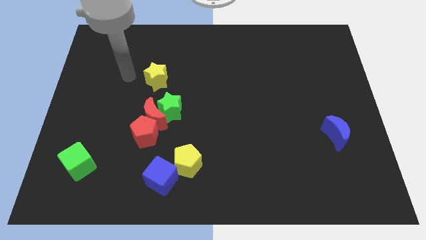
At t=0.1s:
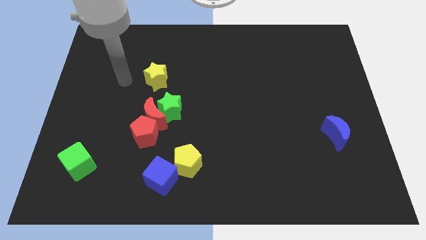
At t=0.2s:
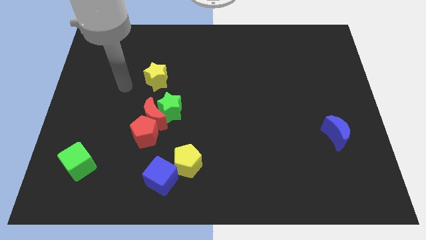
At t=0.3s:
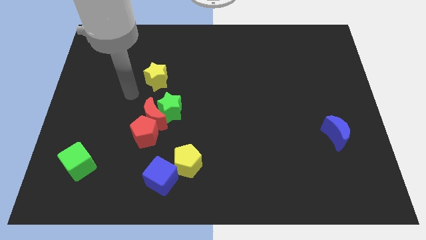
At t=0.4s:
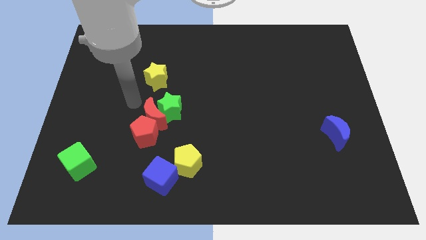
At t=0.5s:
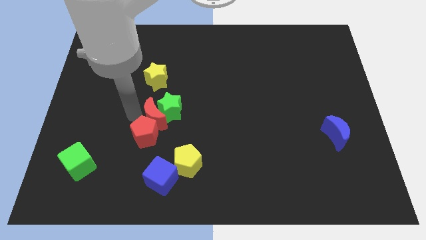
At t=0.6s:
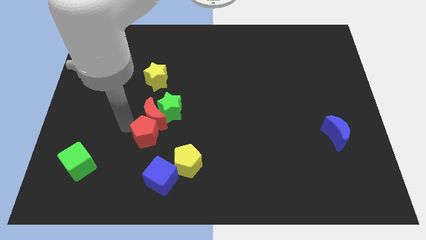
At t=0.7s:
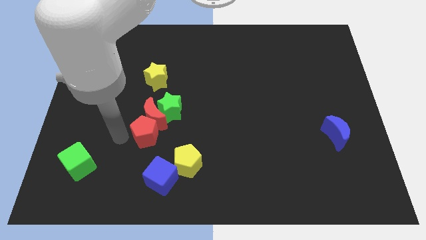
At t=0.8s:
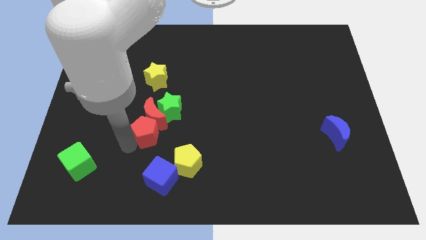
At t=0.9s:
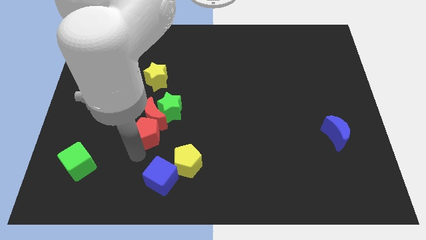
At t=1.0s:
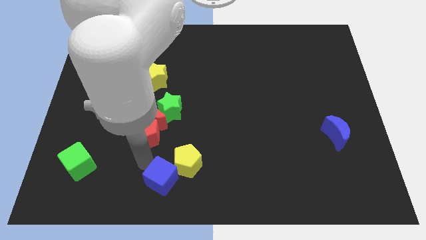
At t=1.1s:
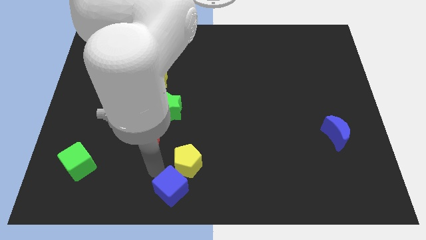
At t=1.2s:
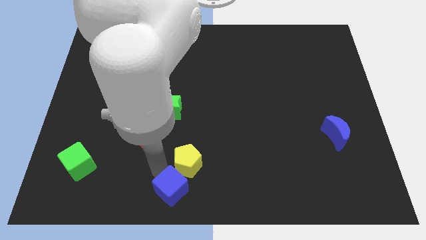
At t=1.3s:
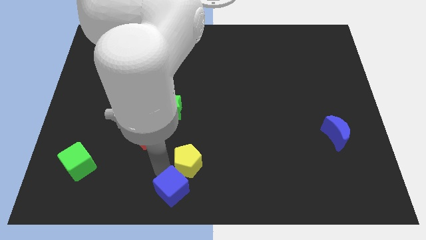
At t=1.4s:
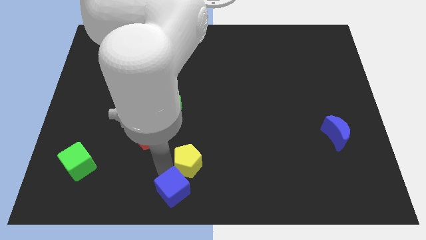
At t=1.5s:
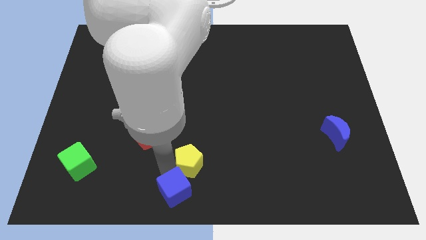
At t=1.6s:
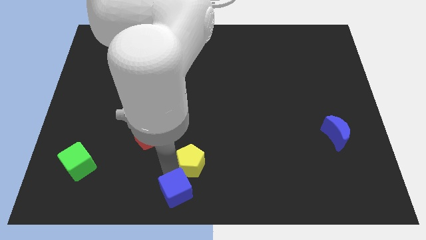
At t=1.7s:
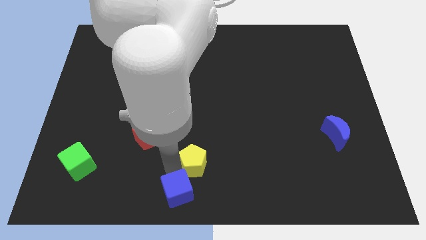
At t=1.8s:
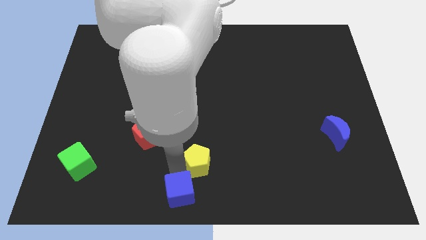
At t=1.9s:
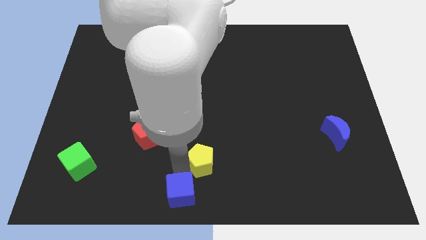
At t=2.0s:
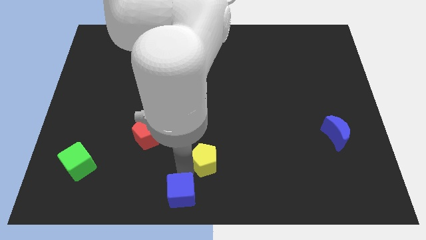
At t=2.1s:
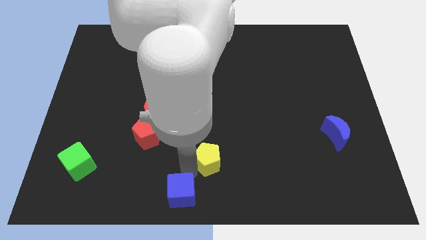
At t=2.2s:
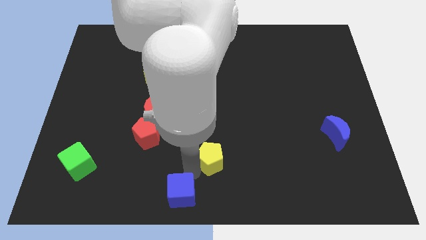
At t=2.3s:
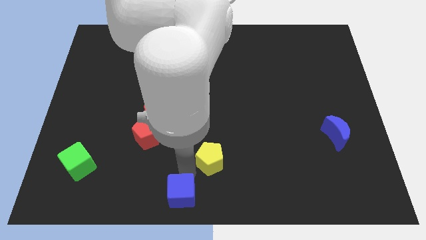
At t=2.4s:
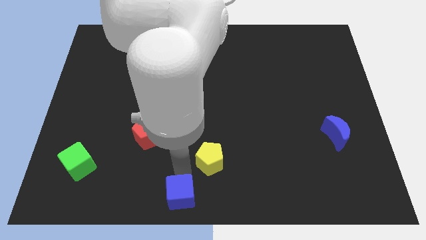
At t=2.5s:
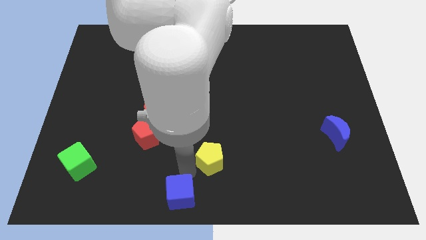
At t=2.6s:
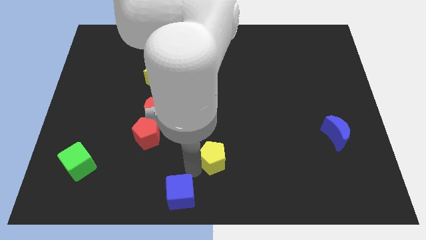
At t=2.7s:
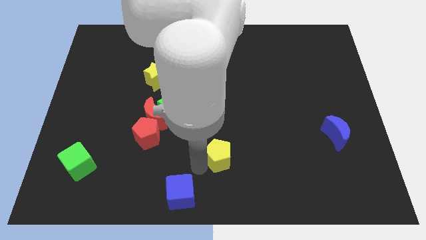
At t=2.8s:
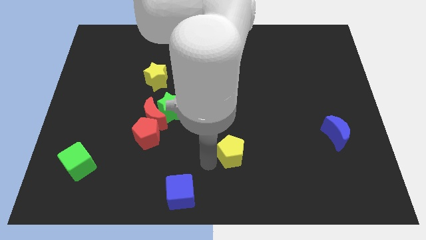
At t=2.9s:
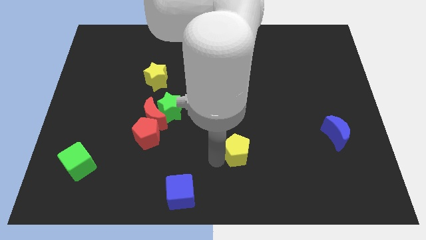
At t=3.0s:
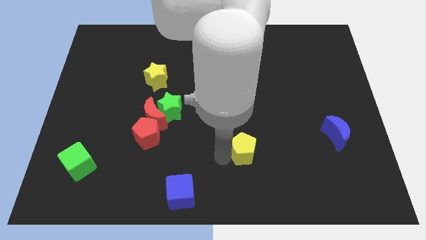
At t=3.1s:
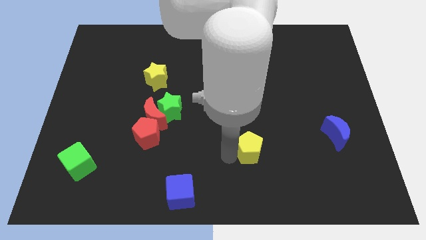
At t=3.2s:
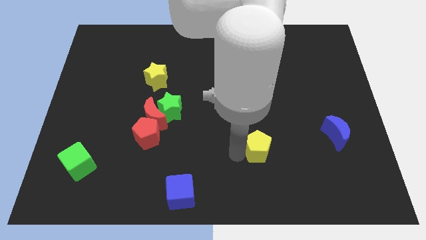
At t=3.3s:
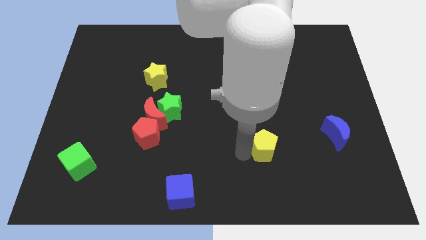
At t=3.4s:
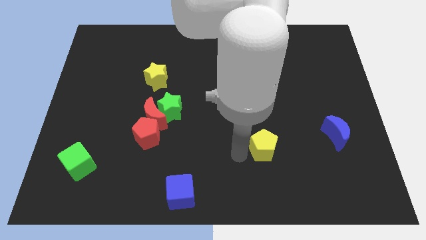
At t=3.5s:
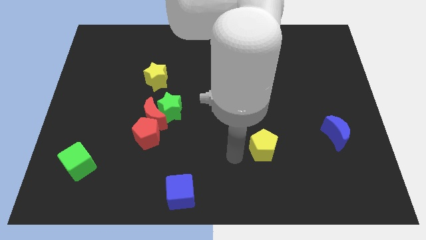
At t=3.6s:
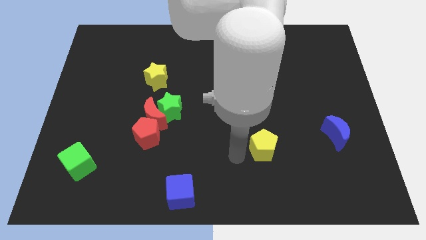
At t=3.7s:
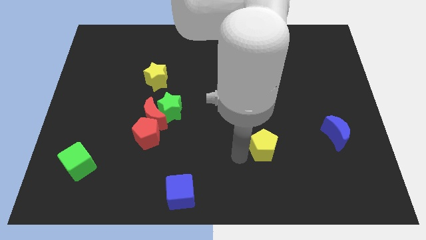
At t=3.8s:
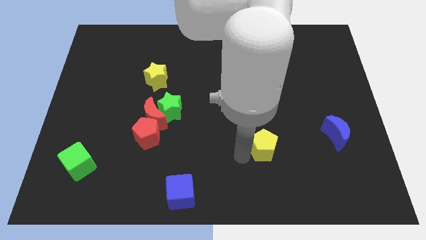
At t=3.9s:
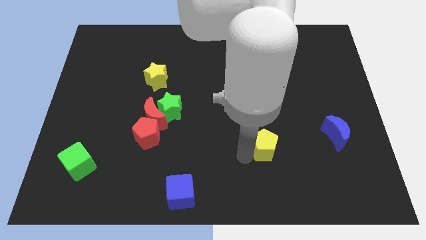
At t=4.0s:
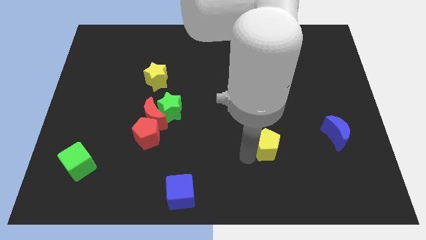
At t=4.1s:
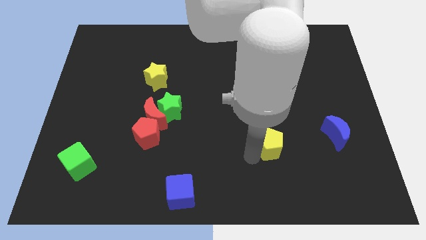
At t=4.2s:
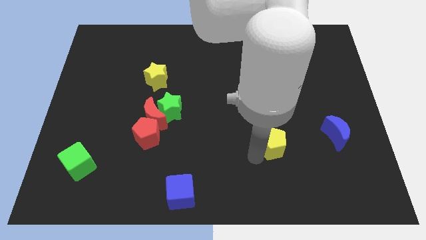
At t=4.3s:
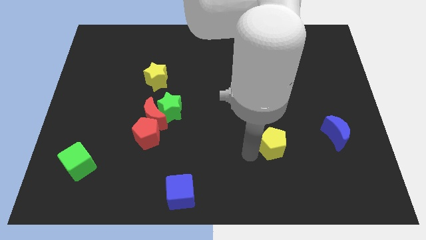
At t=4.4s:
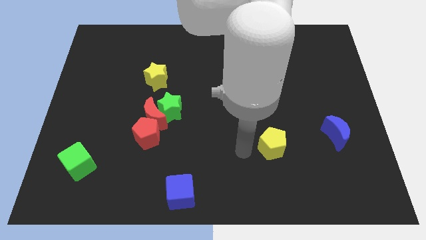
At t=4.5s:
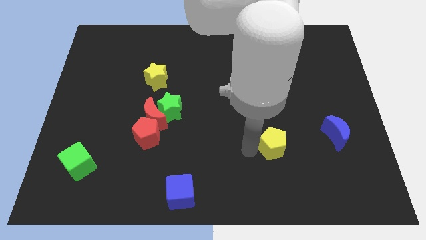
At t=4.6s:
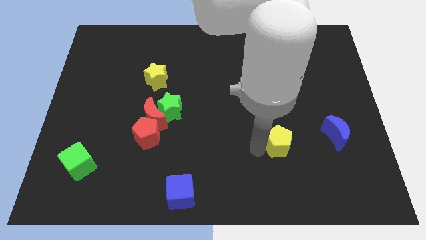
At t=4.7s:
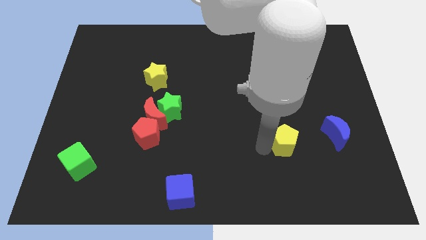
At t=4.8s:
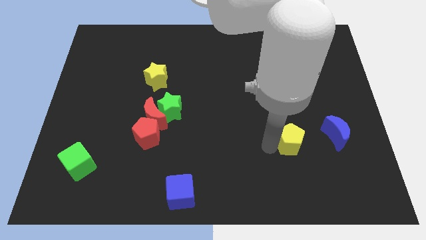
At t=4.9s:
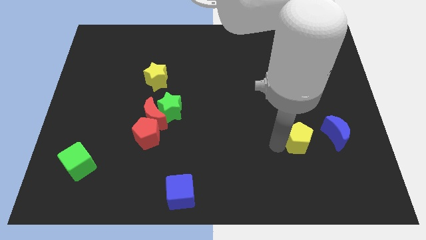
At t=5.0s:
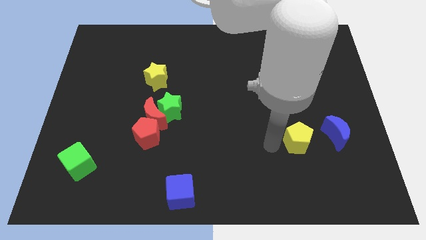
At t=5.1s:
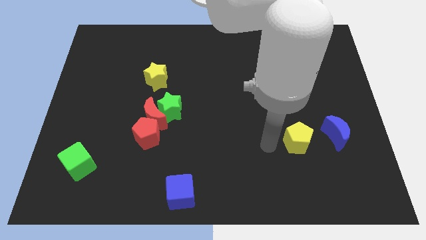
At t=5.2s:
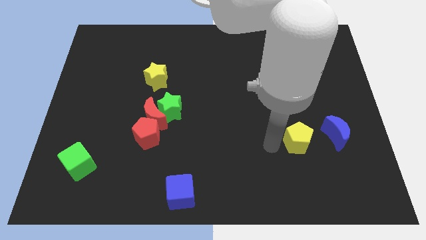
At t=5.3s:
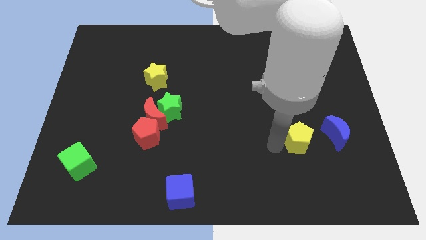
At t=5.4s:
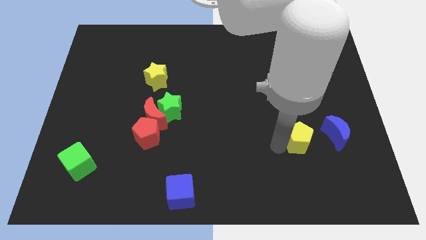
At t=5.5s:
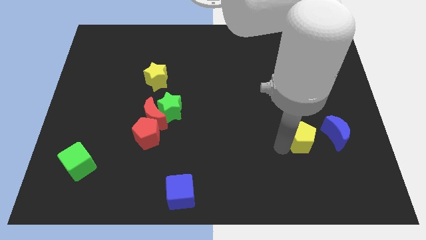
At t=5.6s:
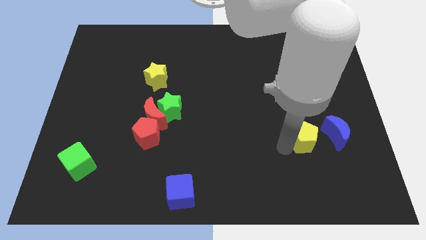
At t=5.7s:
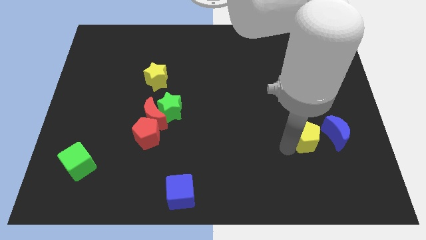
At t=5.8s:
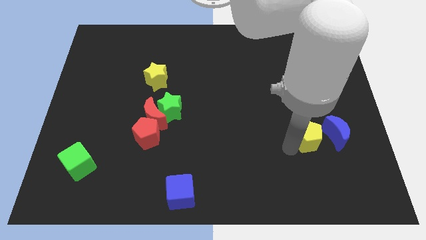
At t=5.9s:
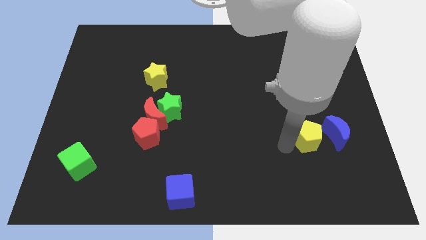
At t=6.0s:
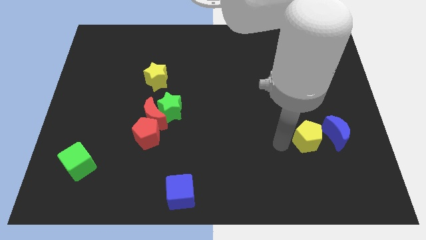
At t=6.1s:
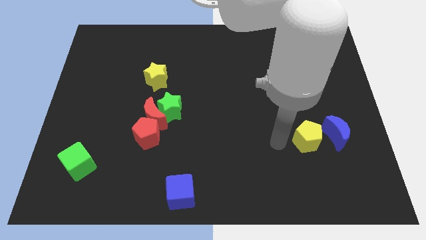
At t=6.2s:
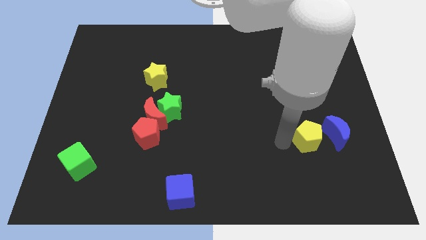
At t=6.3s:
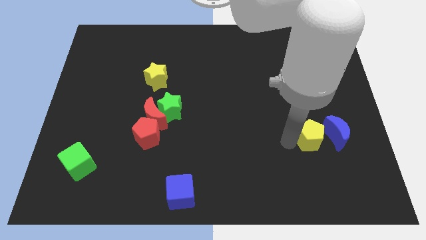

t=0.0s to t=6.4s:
slide the yellow pentagon towards the blue moon

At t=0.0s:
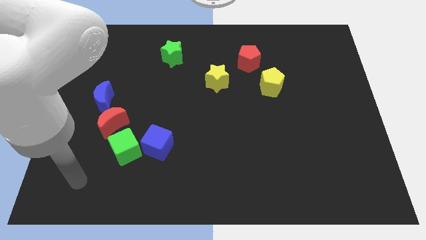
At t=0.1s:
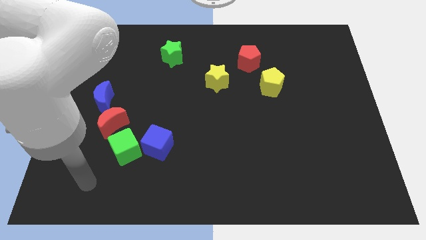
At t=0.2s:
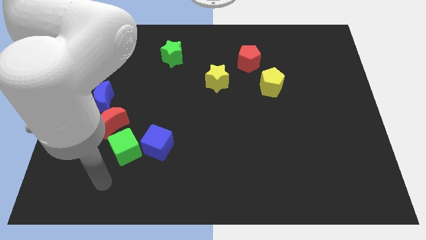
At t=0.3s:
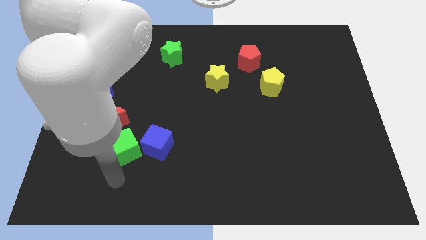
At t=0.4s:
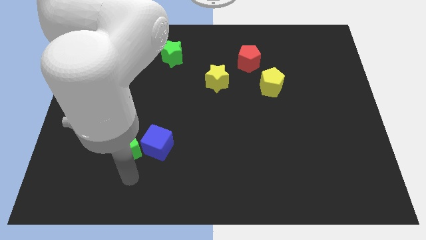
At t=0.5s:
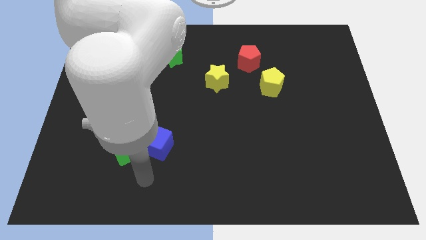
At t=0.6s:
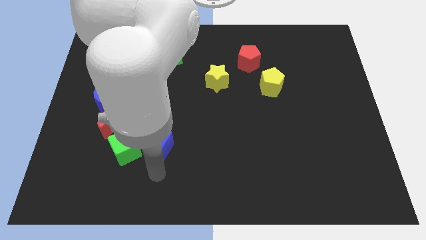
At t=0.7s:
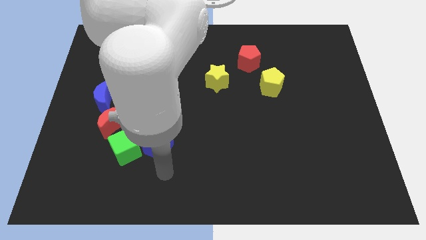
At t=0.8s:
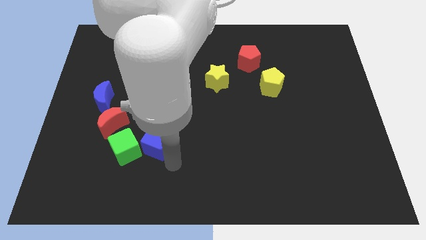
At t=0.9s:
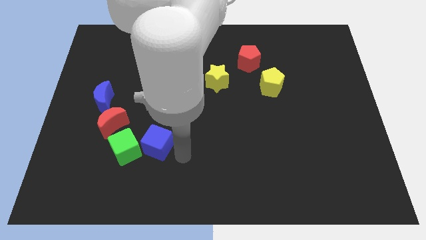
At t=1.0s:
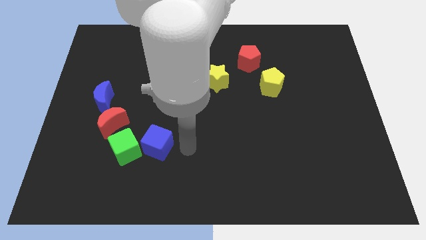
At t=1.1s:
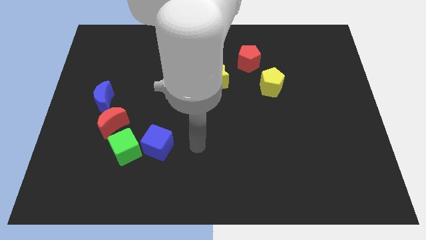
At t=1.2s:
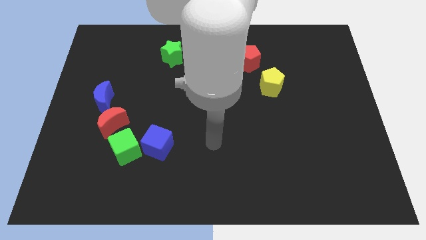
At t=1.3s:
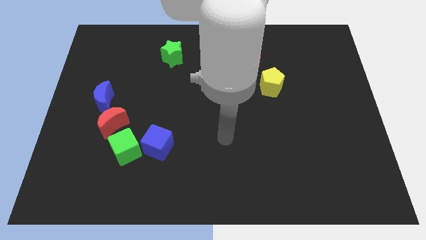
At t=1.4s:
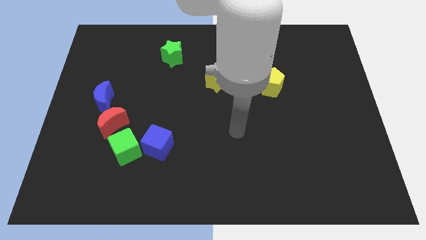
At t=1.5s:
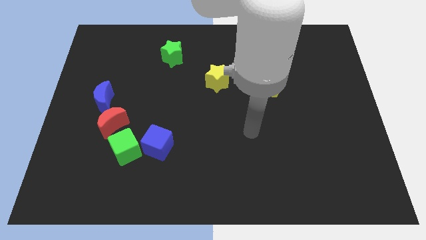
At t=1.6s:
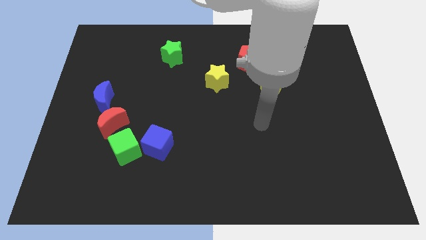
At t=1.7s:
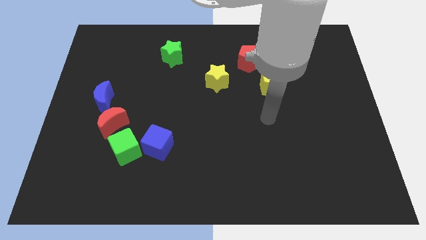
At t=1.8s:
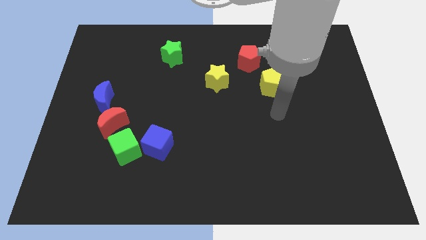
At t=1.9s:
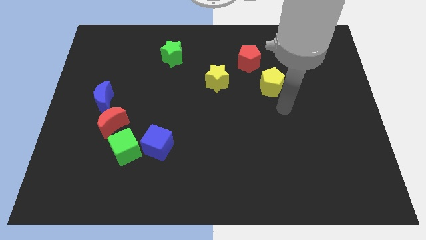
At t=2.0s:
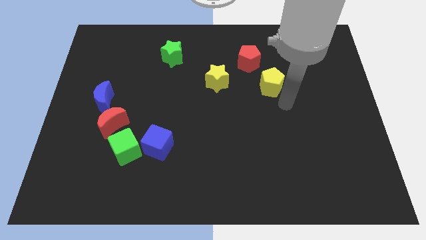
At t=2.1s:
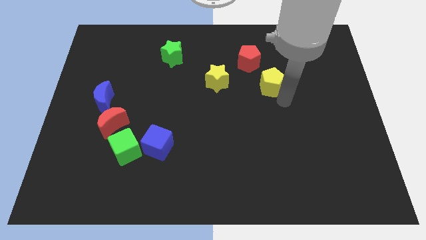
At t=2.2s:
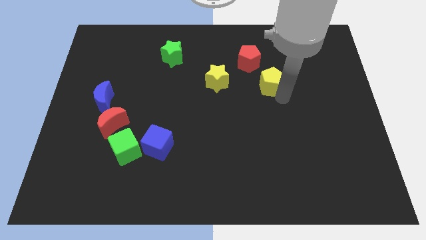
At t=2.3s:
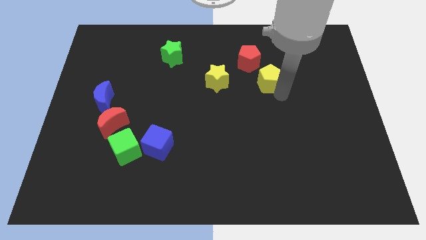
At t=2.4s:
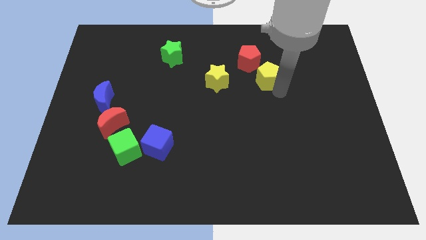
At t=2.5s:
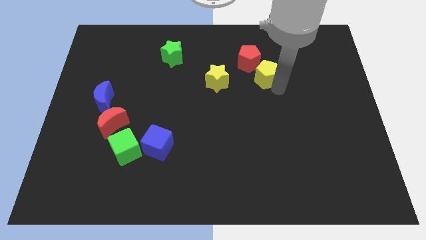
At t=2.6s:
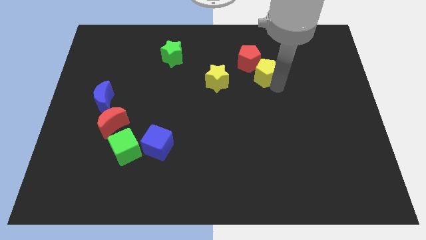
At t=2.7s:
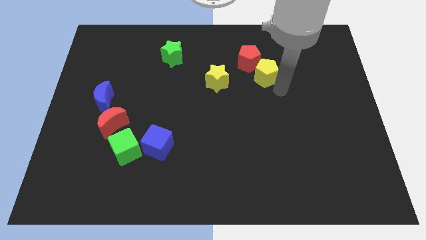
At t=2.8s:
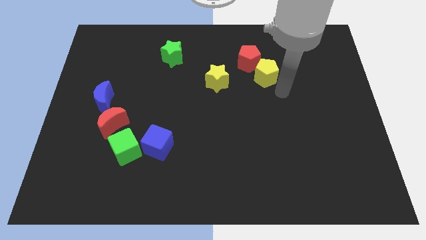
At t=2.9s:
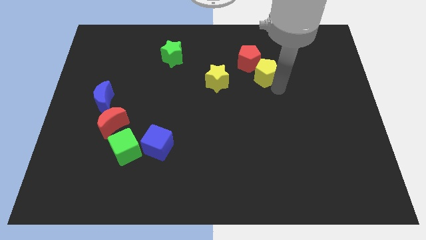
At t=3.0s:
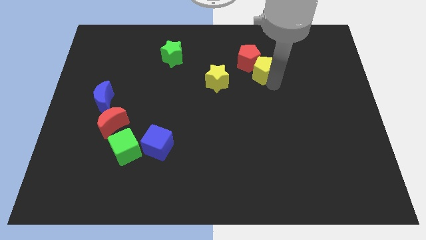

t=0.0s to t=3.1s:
move the yellow pentagon towards the red pentagon
